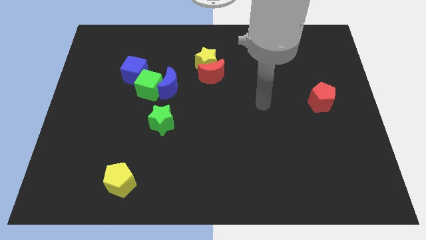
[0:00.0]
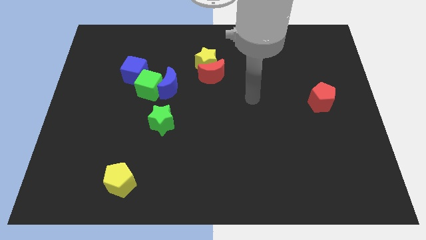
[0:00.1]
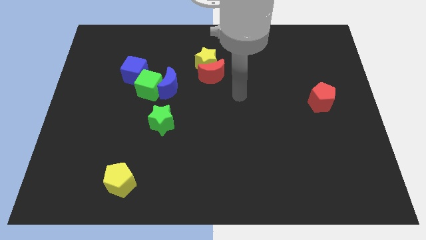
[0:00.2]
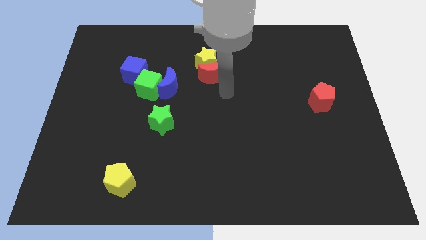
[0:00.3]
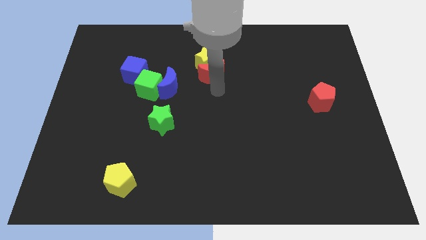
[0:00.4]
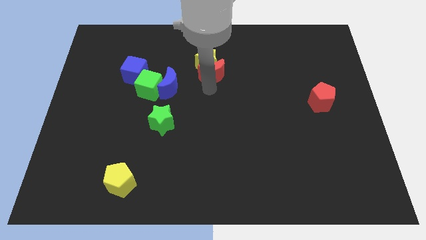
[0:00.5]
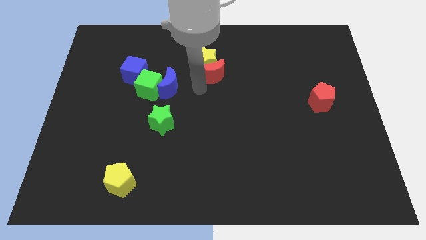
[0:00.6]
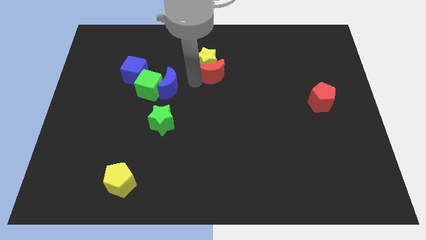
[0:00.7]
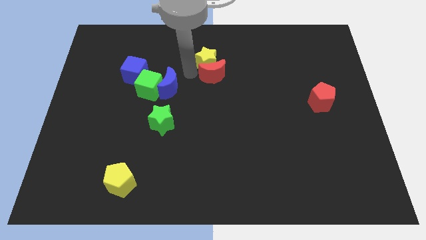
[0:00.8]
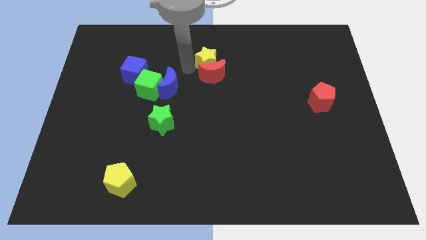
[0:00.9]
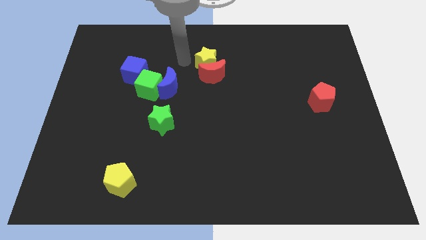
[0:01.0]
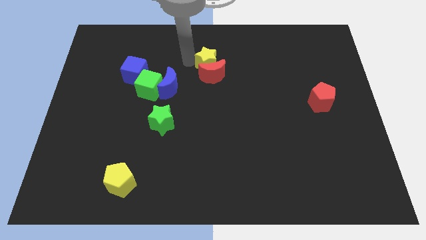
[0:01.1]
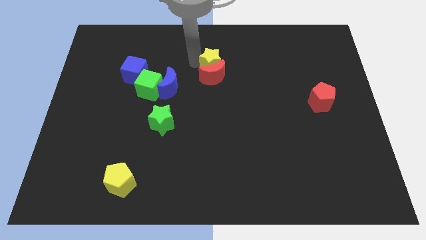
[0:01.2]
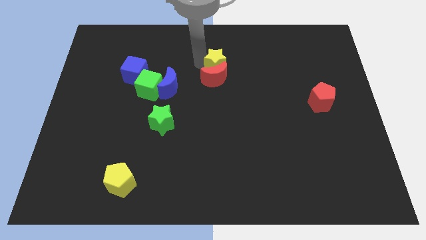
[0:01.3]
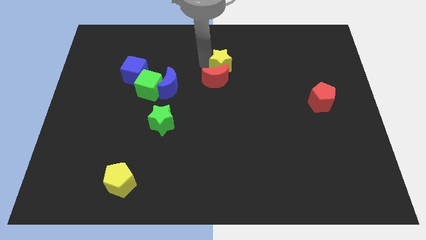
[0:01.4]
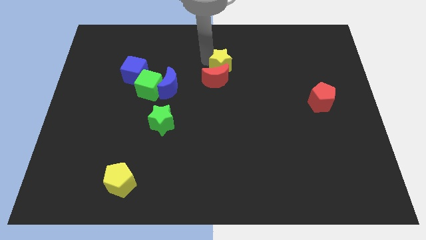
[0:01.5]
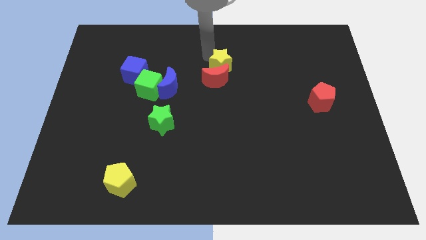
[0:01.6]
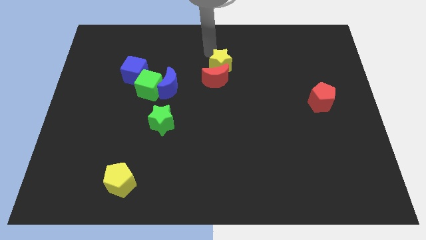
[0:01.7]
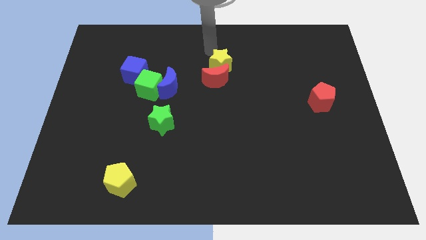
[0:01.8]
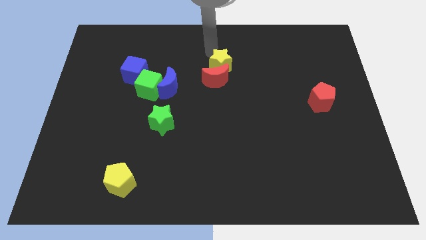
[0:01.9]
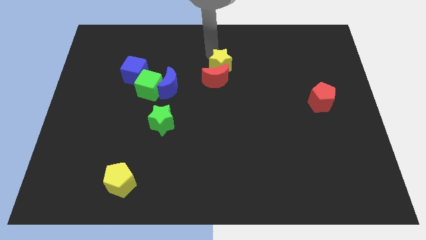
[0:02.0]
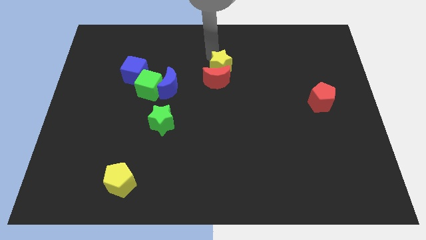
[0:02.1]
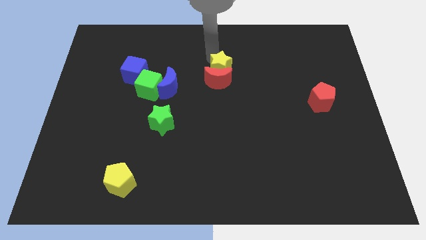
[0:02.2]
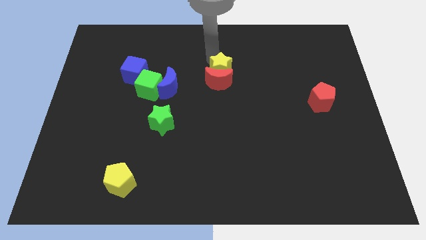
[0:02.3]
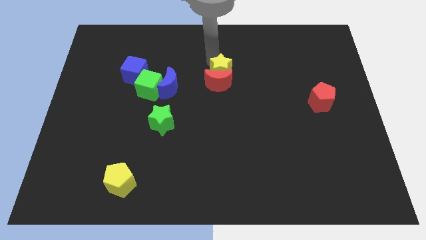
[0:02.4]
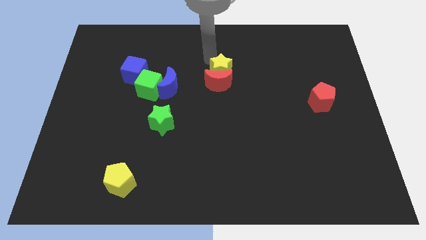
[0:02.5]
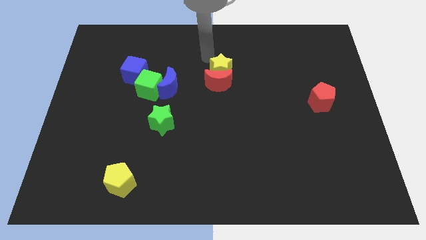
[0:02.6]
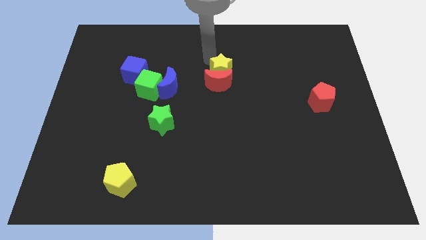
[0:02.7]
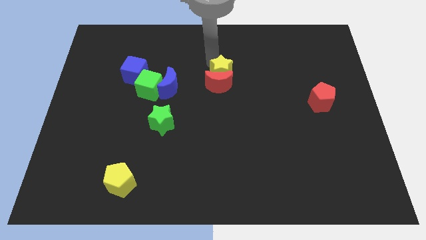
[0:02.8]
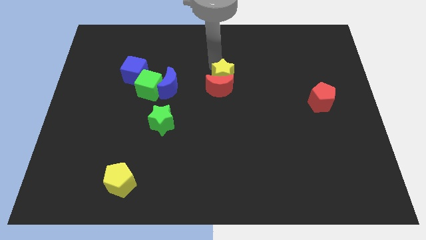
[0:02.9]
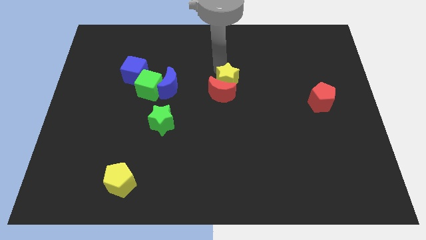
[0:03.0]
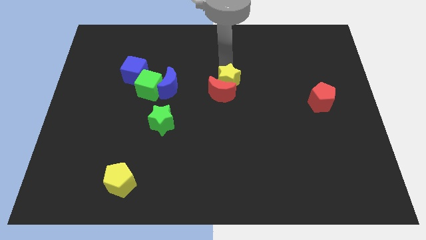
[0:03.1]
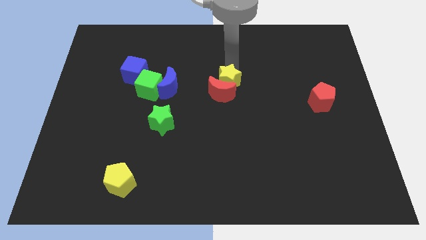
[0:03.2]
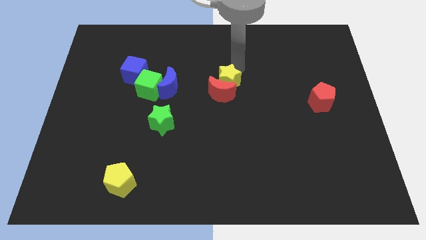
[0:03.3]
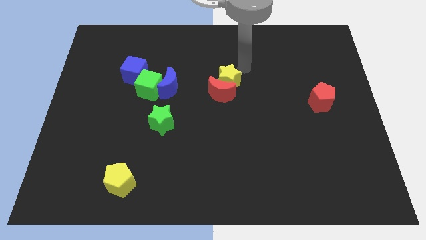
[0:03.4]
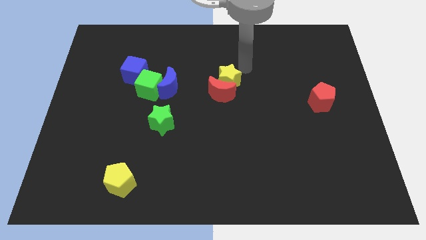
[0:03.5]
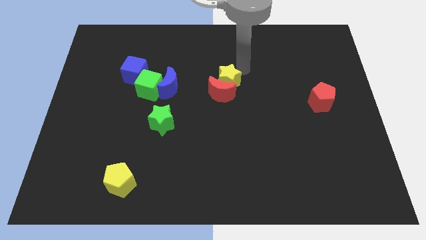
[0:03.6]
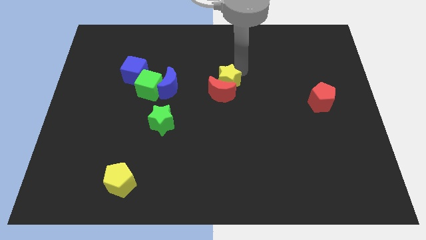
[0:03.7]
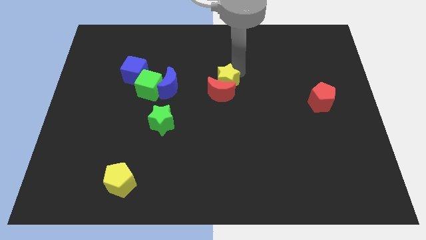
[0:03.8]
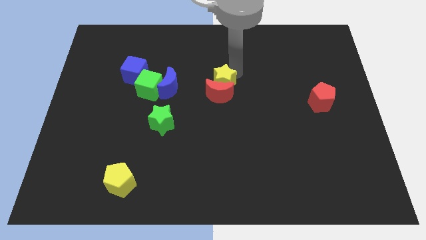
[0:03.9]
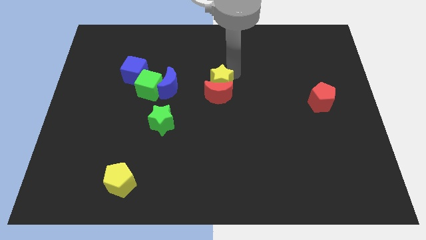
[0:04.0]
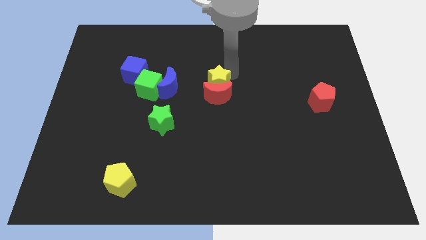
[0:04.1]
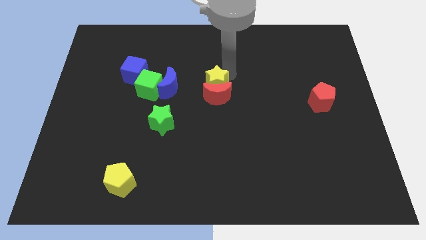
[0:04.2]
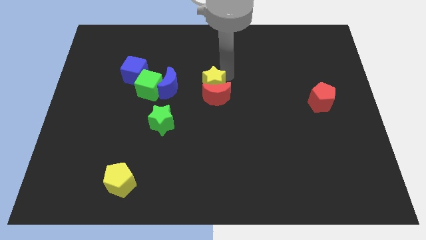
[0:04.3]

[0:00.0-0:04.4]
move the yellow star down slightly

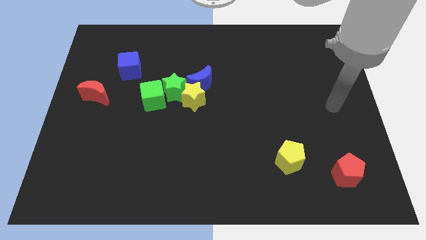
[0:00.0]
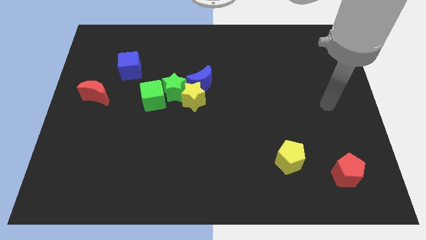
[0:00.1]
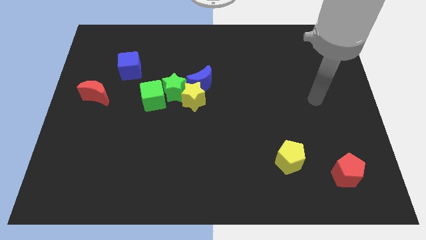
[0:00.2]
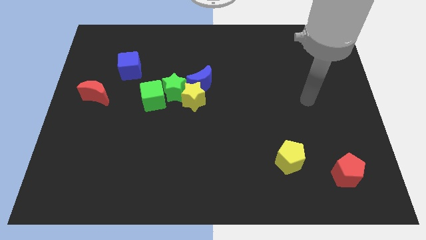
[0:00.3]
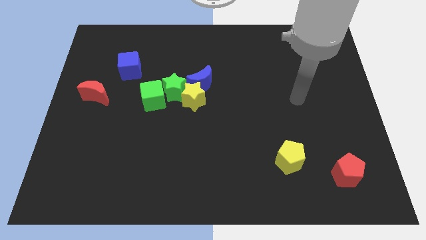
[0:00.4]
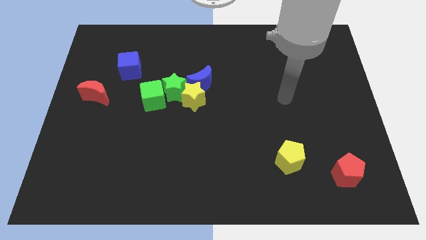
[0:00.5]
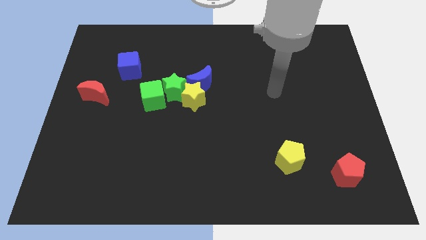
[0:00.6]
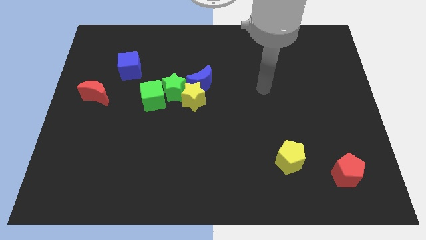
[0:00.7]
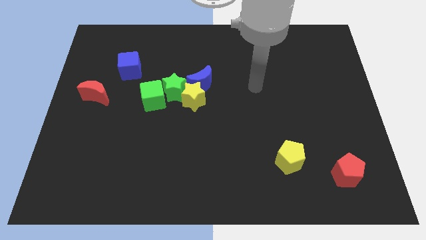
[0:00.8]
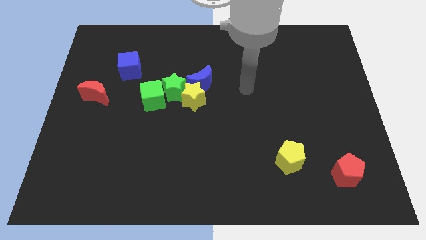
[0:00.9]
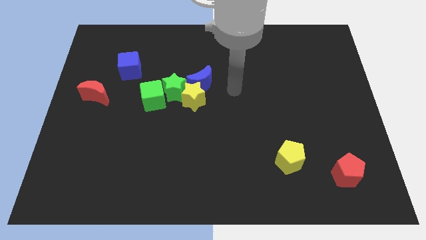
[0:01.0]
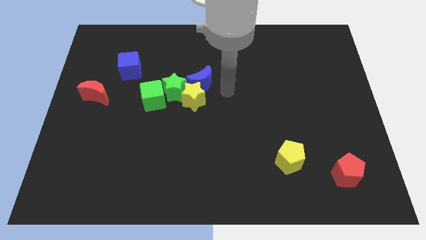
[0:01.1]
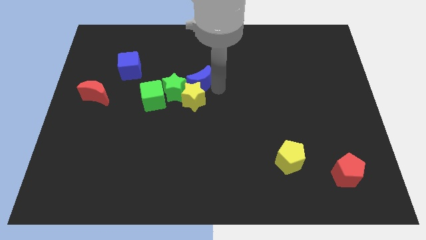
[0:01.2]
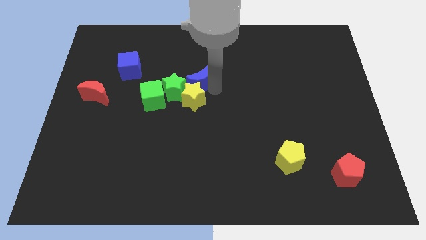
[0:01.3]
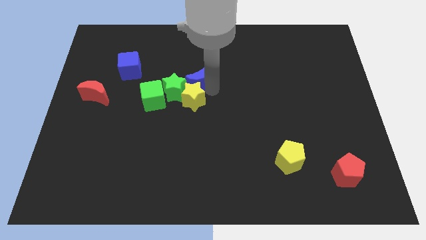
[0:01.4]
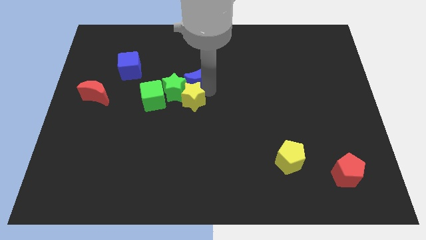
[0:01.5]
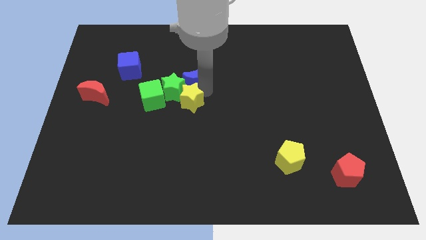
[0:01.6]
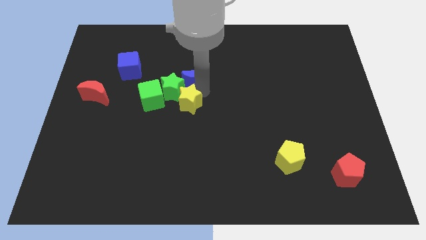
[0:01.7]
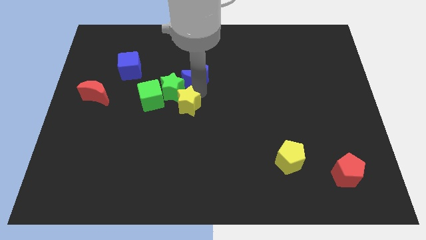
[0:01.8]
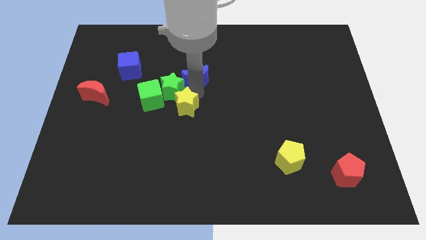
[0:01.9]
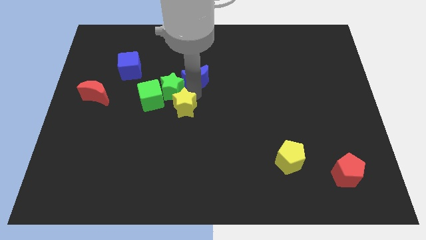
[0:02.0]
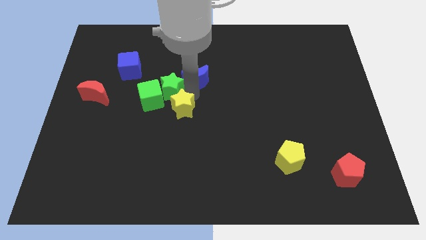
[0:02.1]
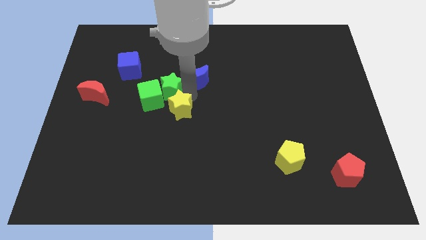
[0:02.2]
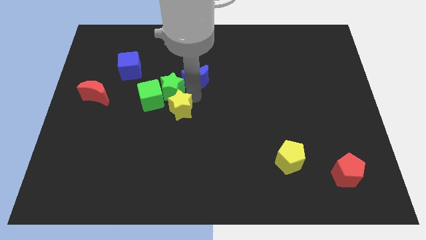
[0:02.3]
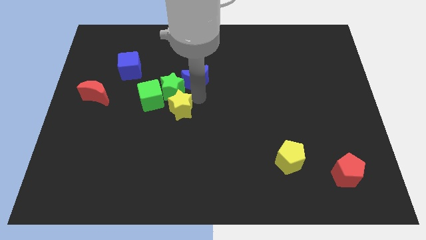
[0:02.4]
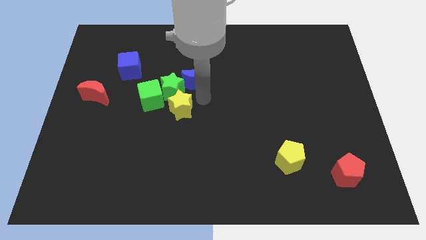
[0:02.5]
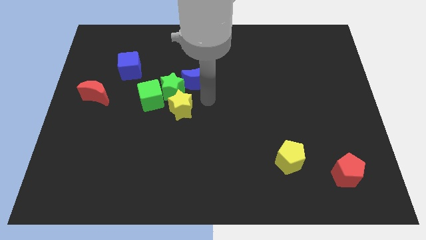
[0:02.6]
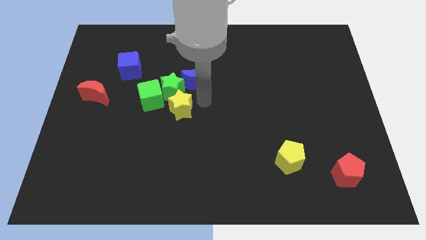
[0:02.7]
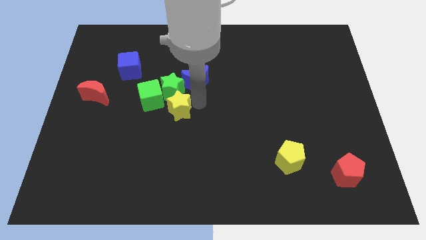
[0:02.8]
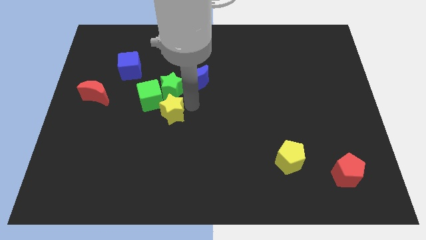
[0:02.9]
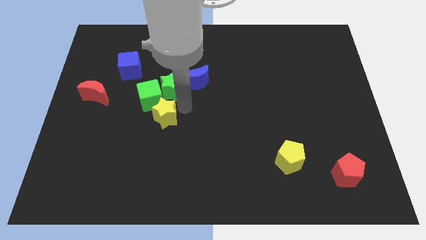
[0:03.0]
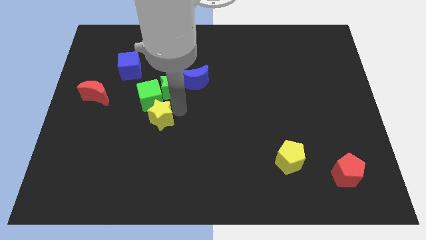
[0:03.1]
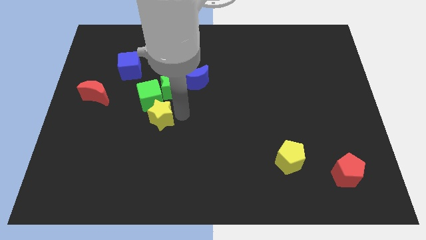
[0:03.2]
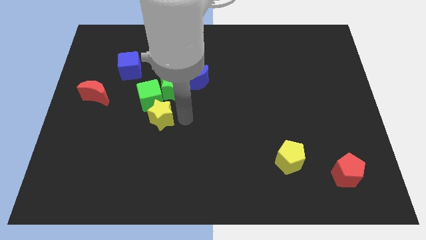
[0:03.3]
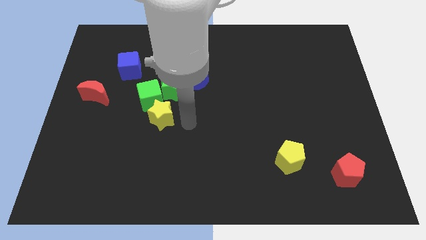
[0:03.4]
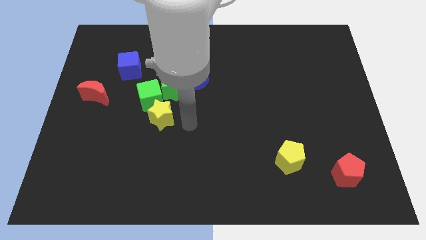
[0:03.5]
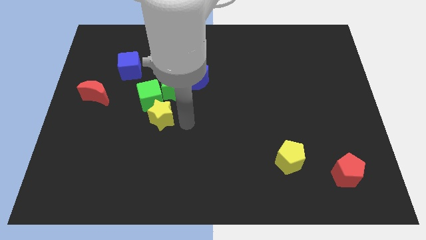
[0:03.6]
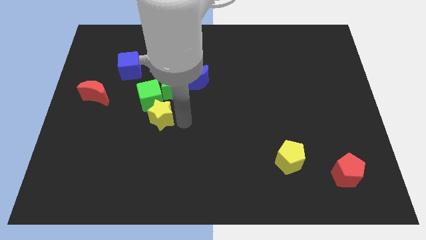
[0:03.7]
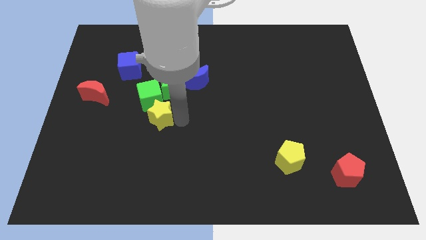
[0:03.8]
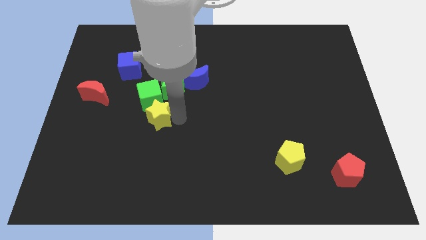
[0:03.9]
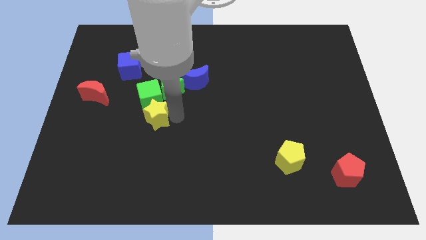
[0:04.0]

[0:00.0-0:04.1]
slightly push the yellow star left
